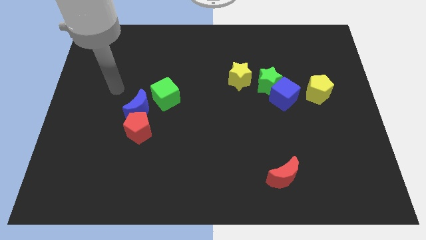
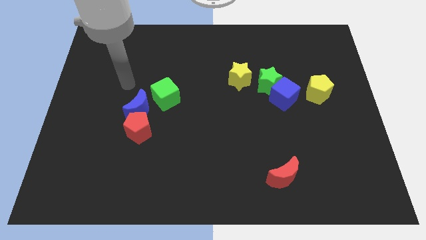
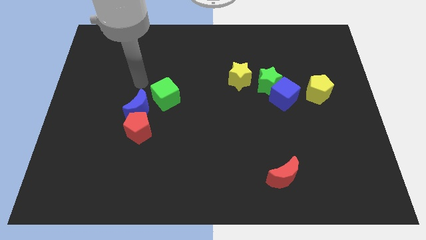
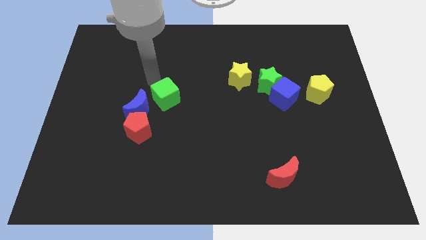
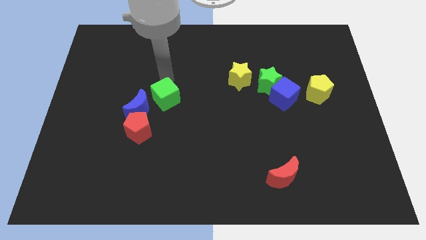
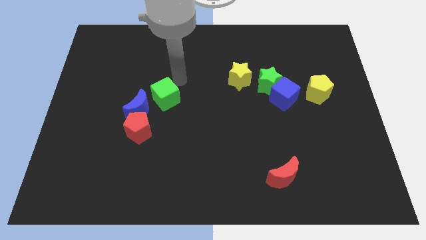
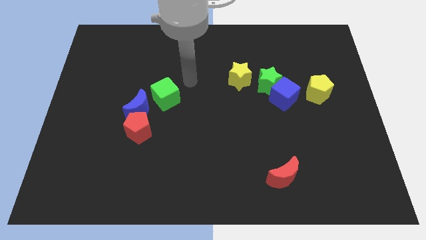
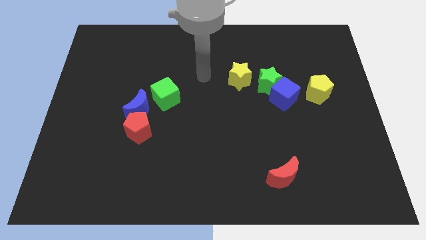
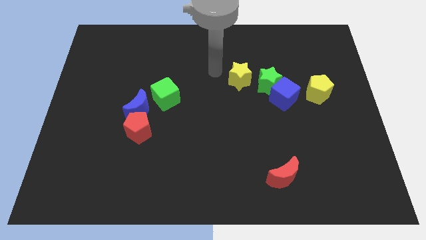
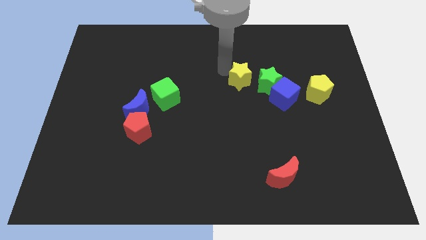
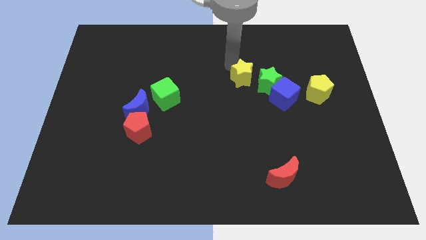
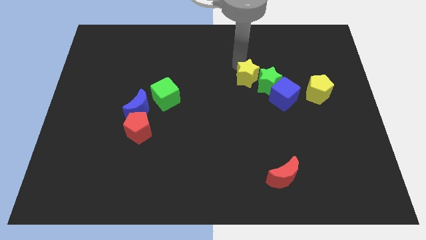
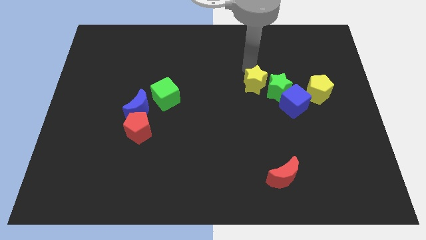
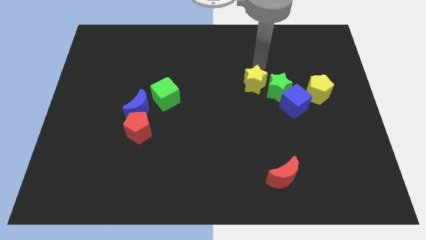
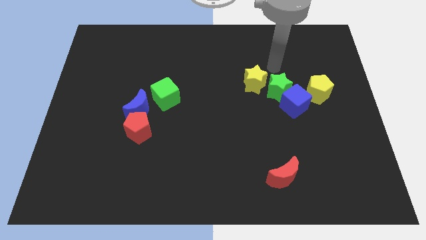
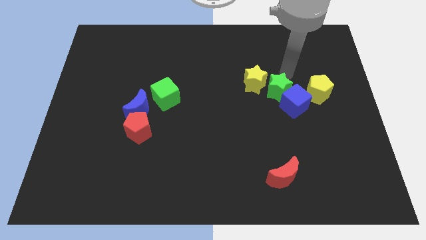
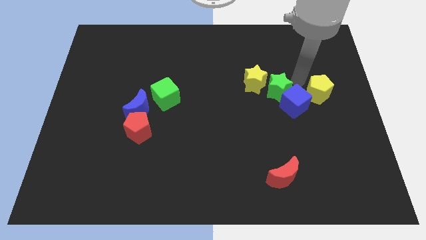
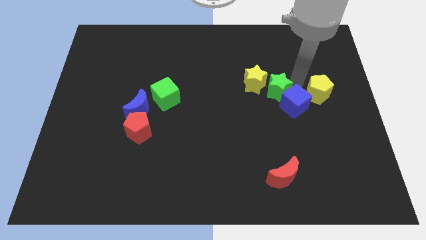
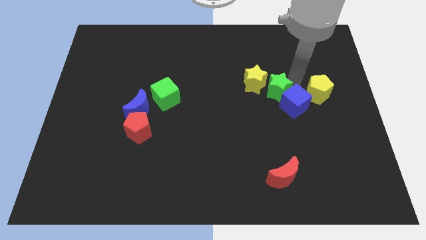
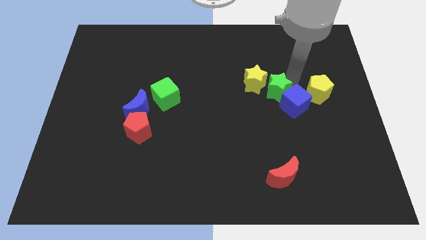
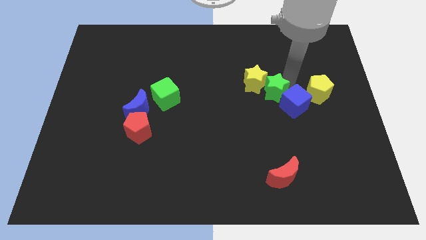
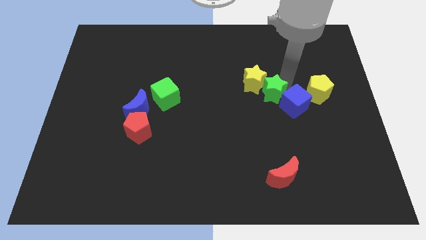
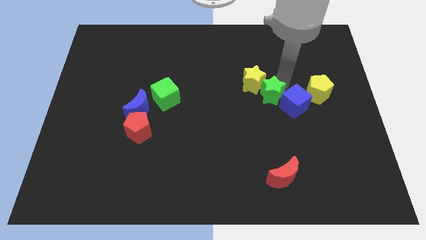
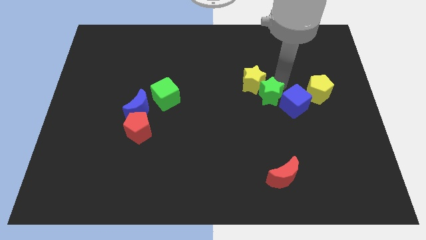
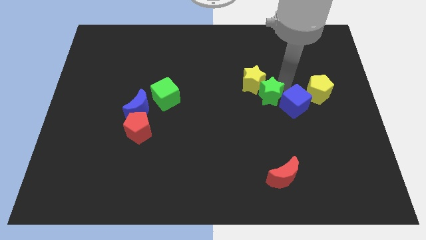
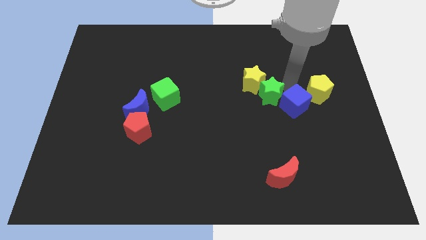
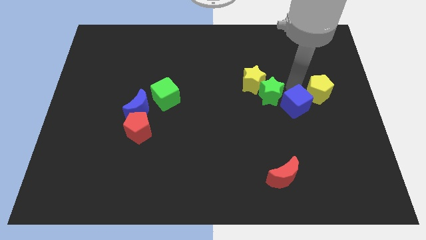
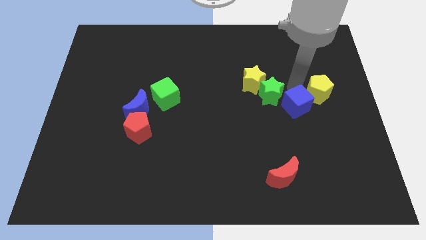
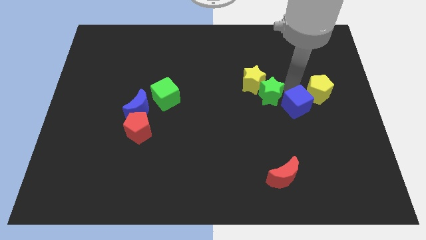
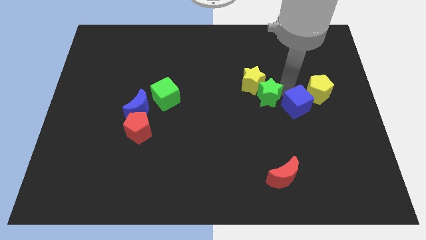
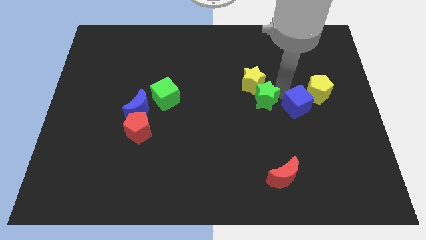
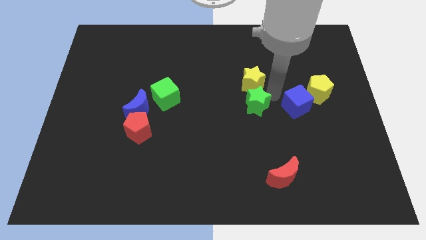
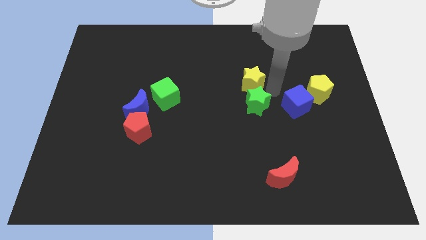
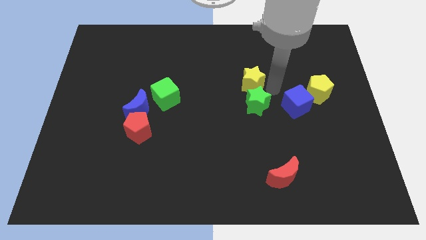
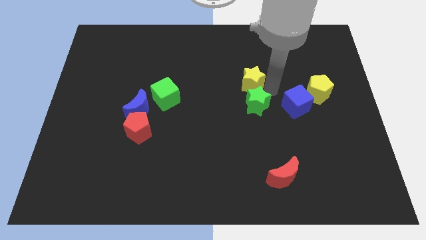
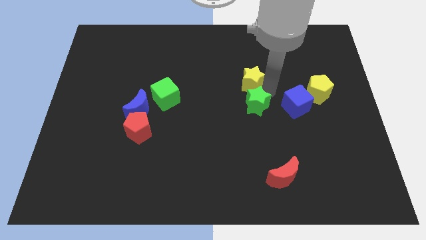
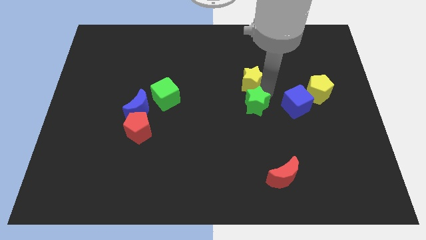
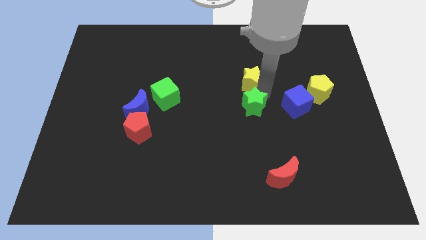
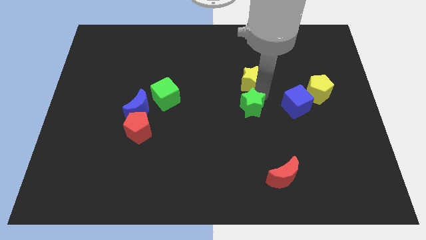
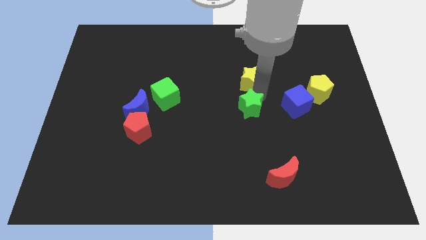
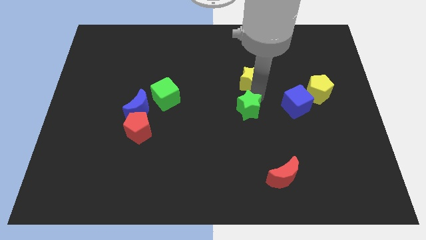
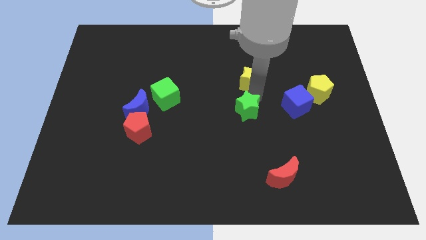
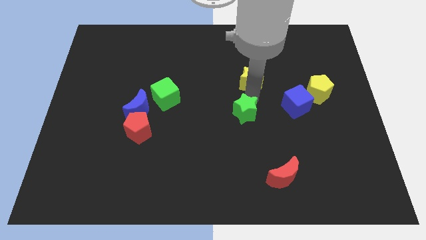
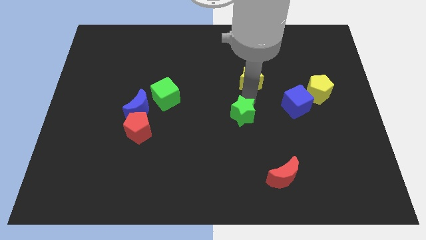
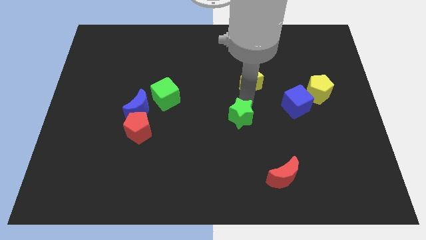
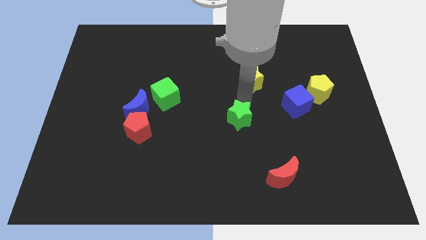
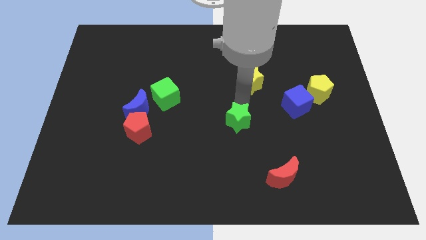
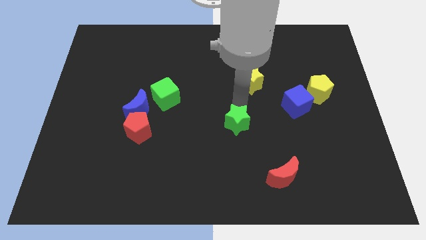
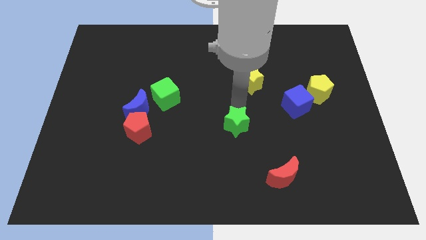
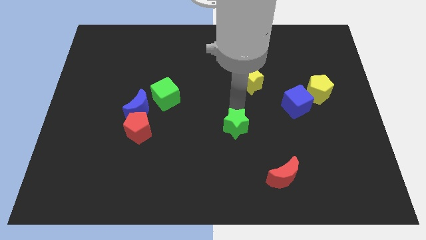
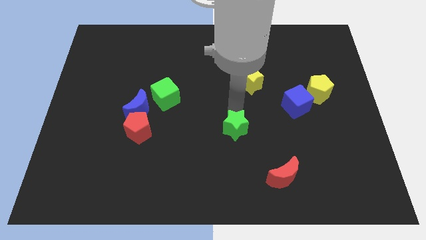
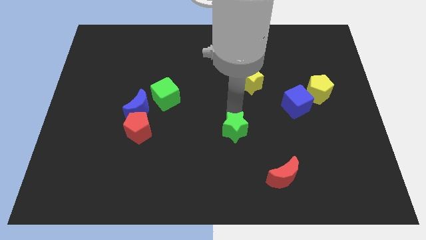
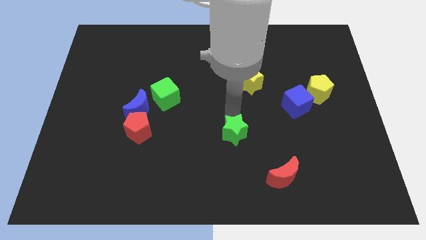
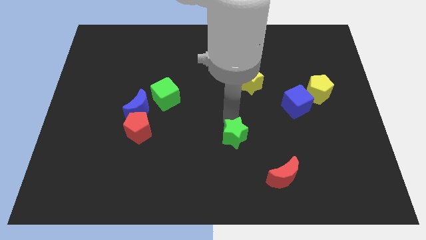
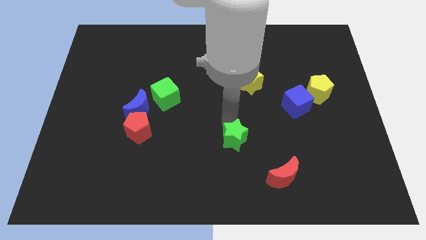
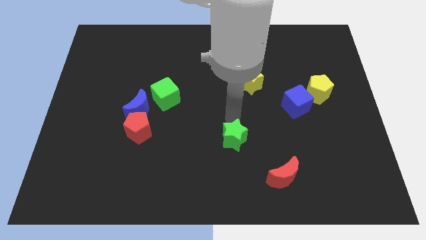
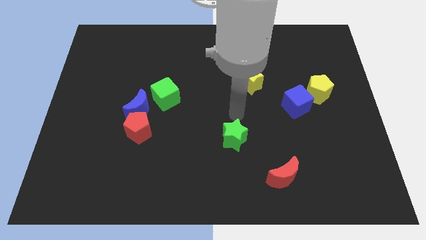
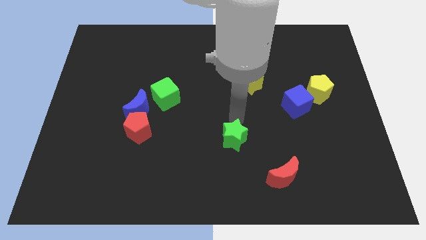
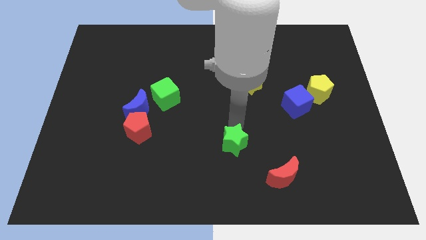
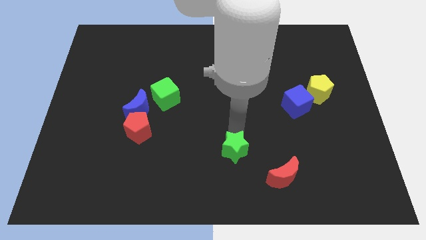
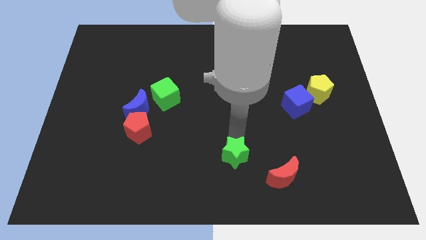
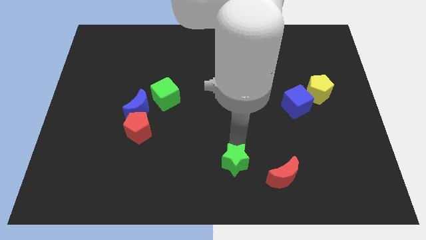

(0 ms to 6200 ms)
slide the green star to the bottom side
